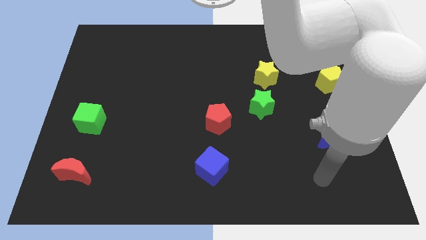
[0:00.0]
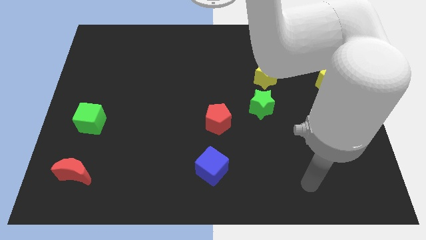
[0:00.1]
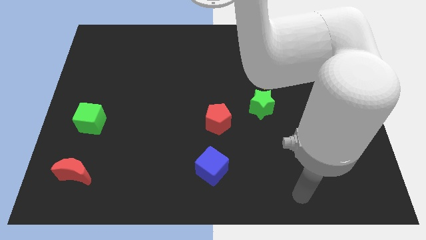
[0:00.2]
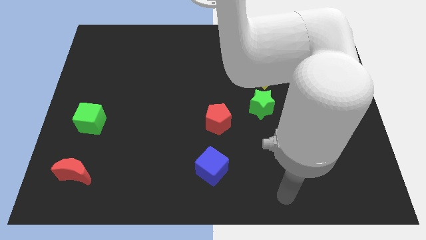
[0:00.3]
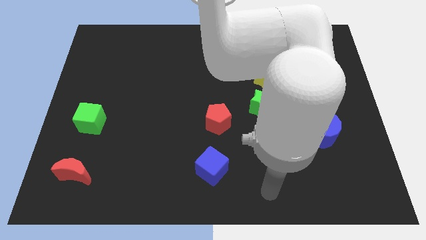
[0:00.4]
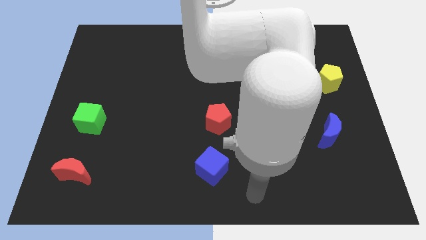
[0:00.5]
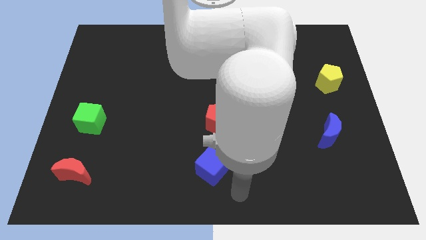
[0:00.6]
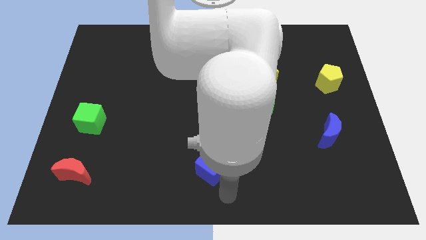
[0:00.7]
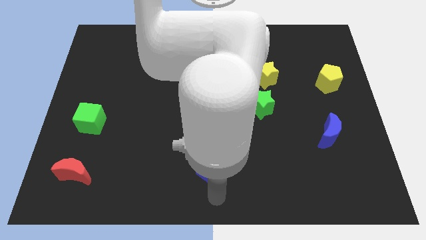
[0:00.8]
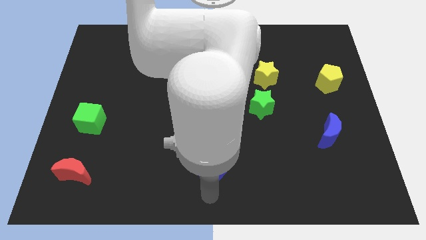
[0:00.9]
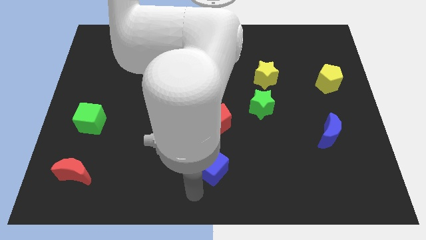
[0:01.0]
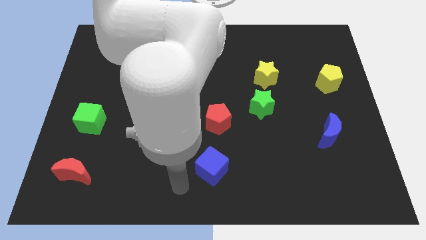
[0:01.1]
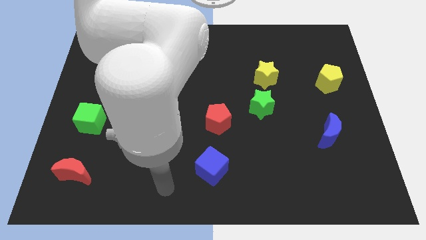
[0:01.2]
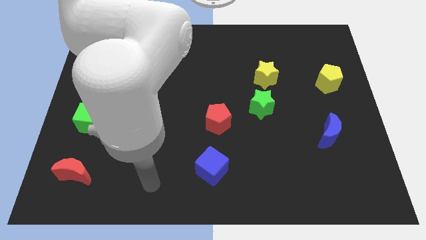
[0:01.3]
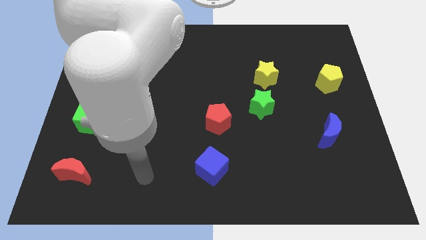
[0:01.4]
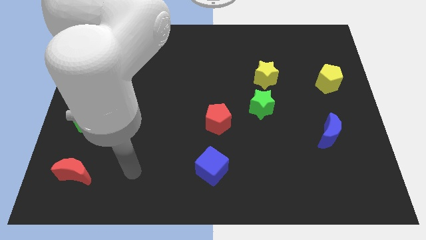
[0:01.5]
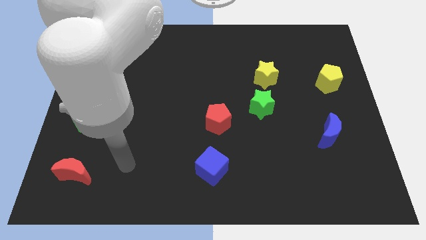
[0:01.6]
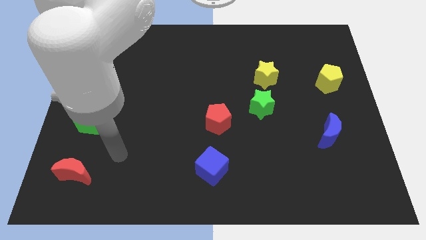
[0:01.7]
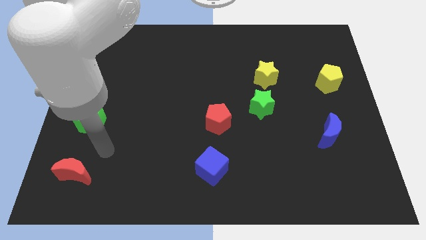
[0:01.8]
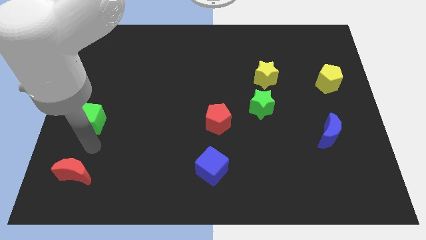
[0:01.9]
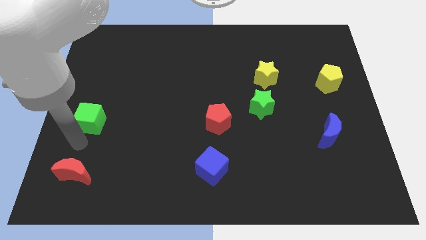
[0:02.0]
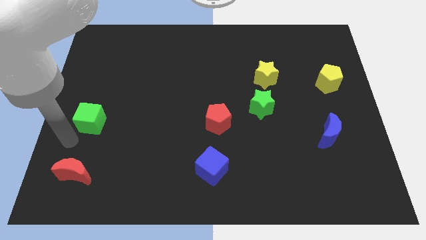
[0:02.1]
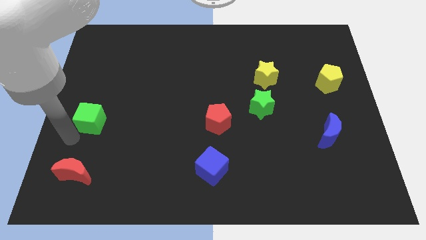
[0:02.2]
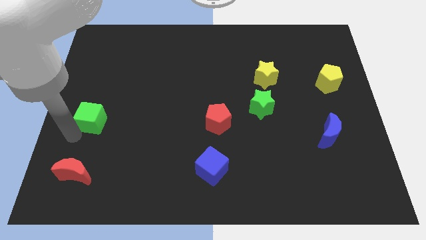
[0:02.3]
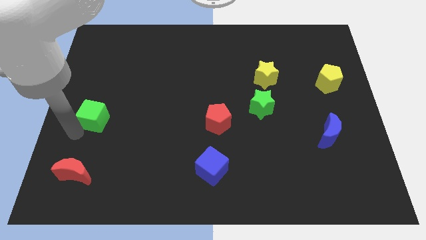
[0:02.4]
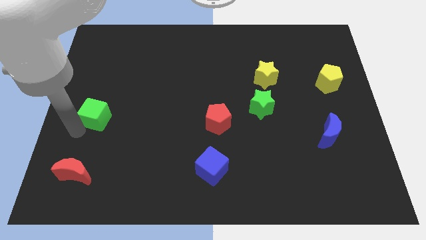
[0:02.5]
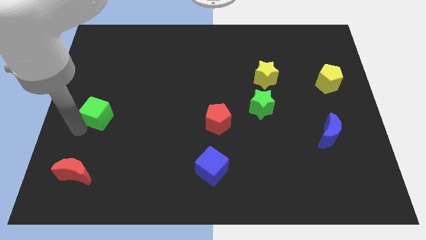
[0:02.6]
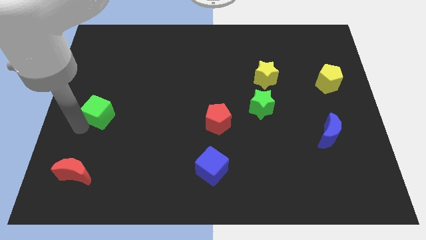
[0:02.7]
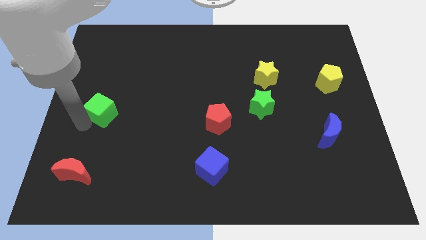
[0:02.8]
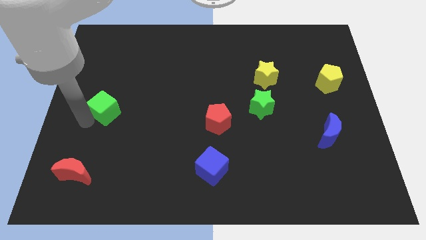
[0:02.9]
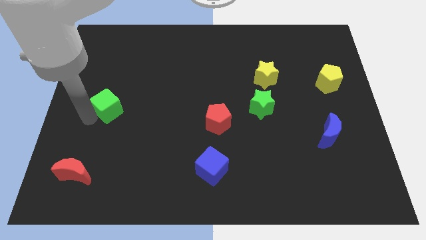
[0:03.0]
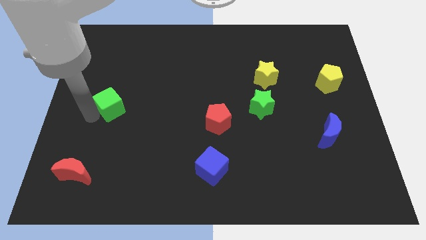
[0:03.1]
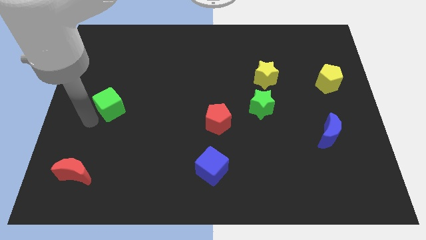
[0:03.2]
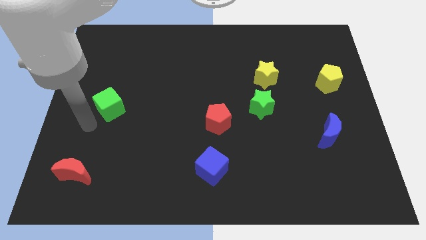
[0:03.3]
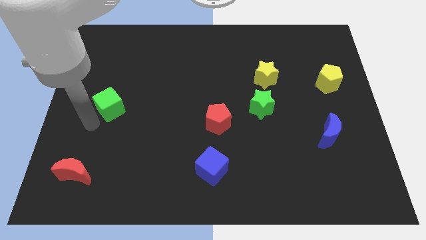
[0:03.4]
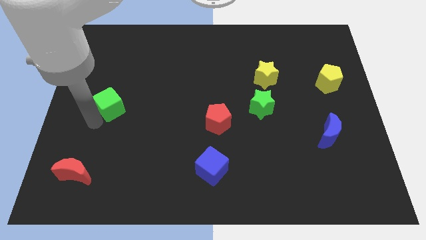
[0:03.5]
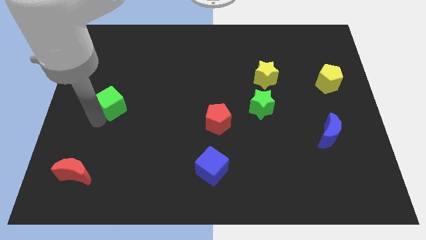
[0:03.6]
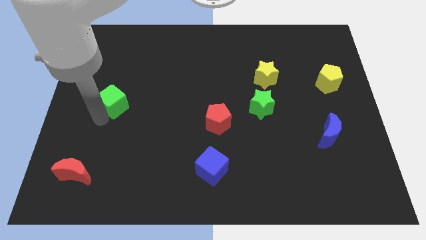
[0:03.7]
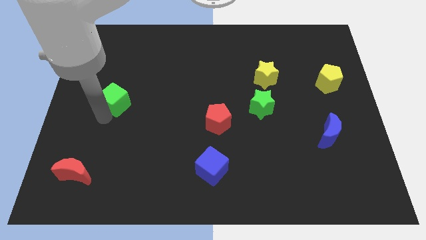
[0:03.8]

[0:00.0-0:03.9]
slide the green cube slightly diagonally upwards and to the right

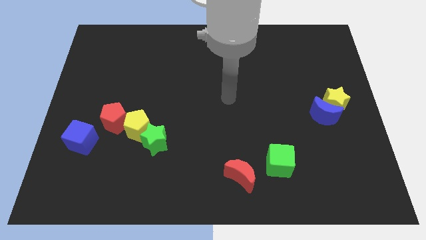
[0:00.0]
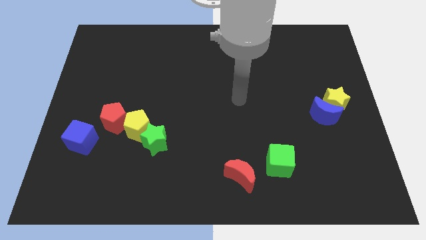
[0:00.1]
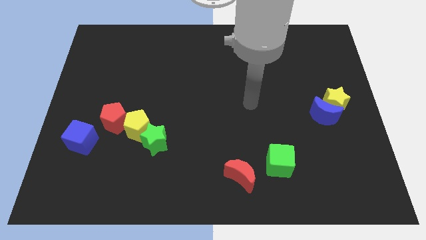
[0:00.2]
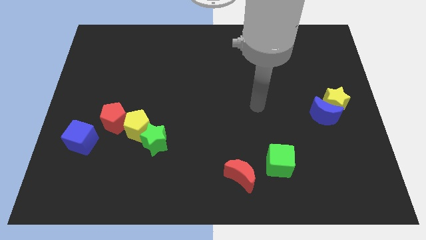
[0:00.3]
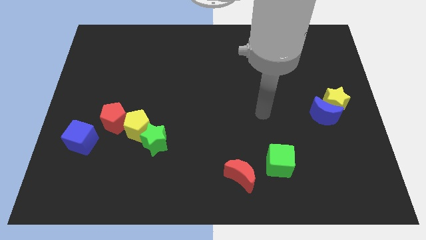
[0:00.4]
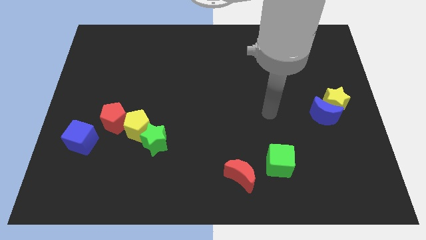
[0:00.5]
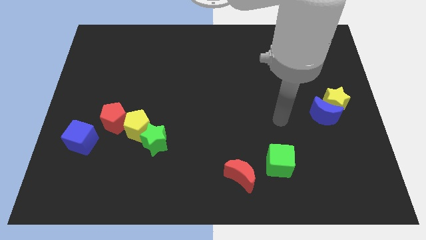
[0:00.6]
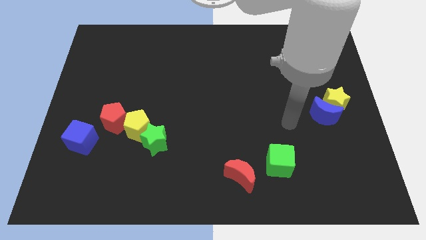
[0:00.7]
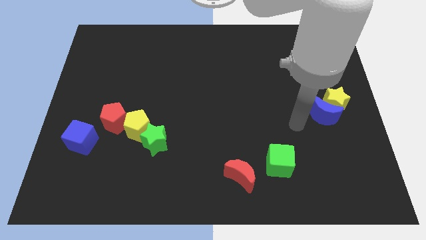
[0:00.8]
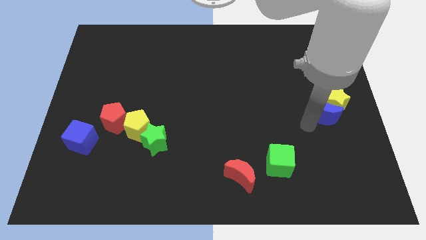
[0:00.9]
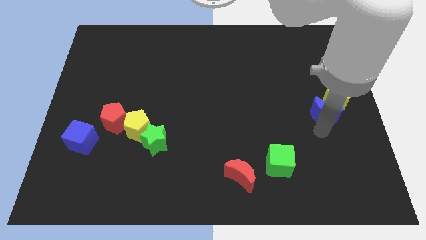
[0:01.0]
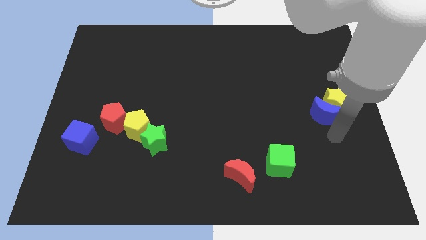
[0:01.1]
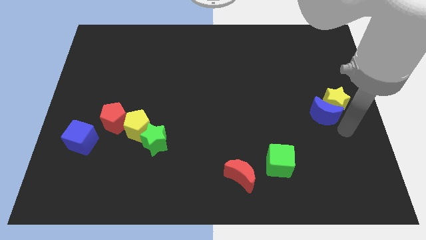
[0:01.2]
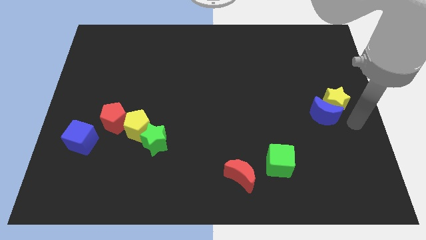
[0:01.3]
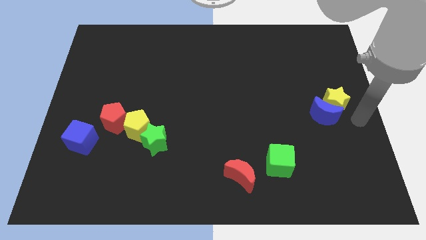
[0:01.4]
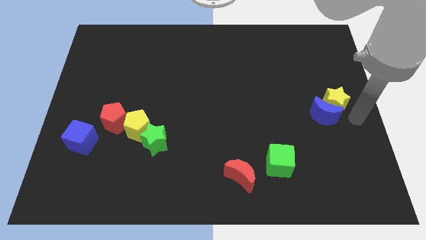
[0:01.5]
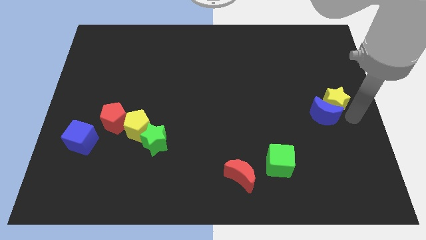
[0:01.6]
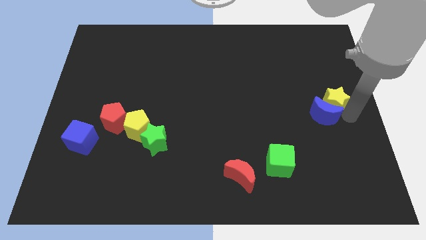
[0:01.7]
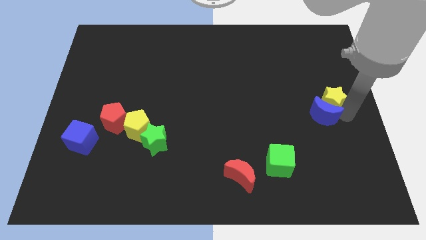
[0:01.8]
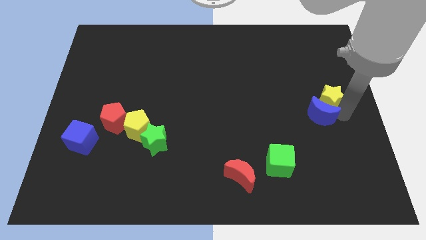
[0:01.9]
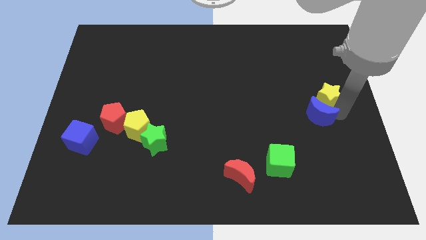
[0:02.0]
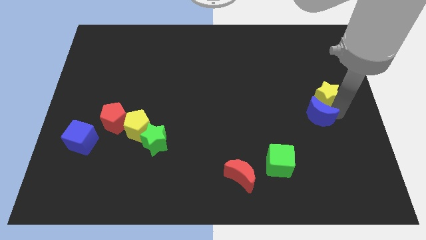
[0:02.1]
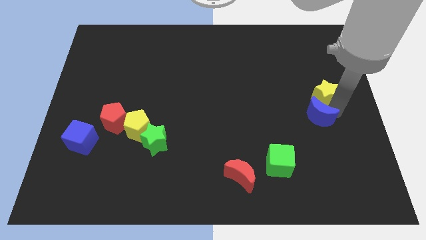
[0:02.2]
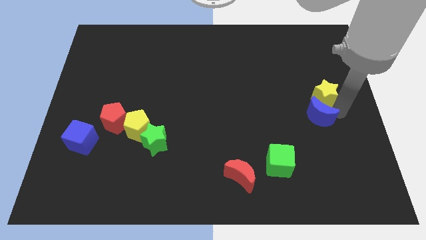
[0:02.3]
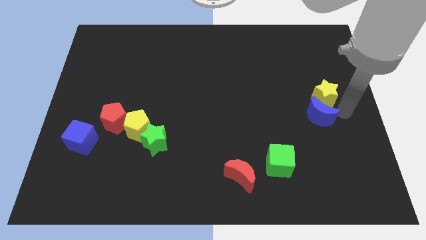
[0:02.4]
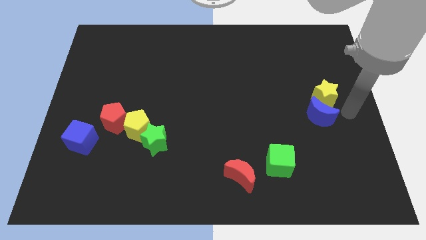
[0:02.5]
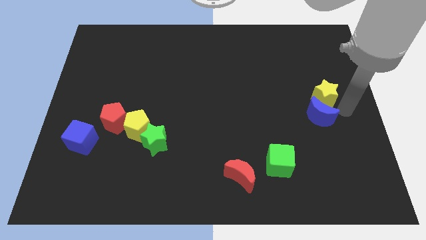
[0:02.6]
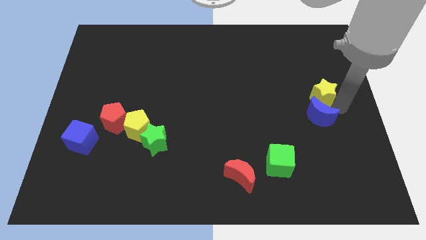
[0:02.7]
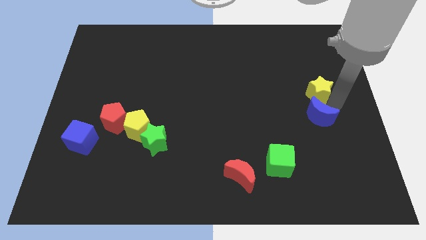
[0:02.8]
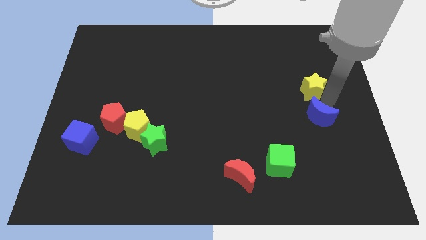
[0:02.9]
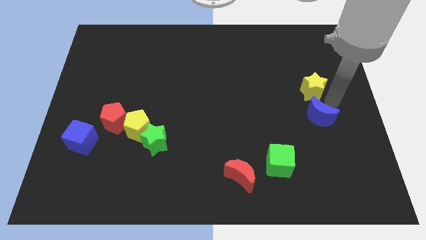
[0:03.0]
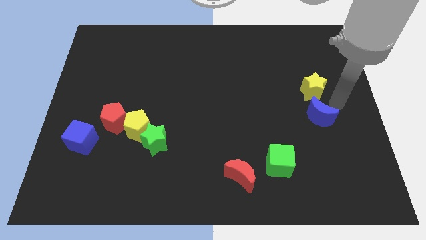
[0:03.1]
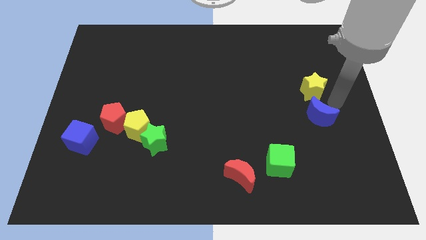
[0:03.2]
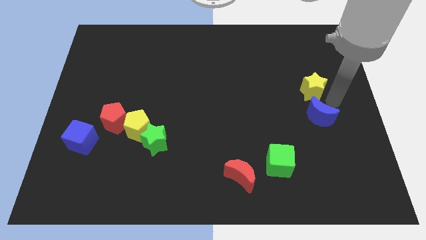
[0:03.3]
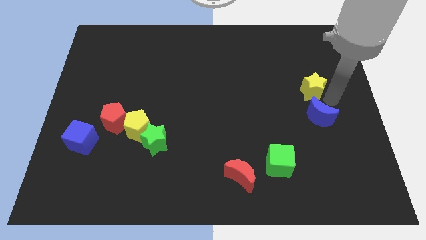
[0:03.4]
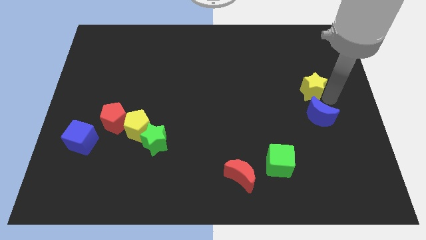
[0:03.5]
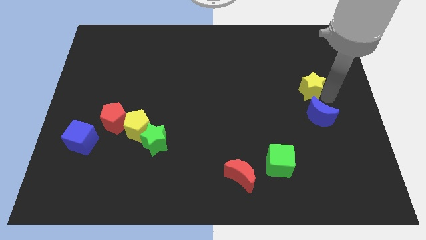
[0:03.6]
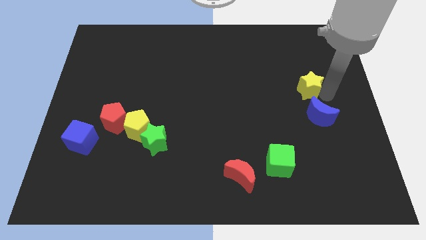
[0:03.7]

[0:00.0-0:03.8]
slightly move the yellow star upwards and to the left
